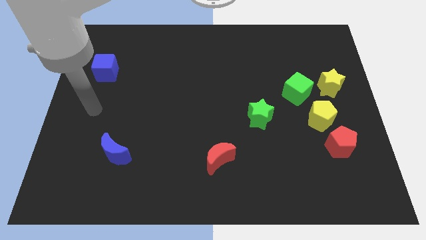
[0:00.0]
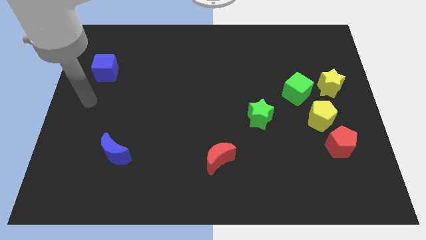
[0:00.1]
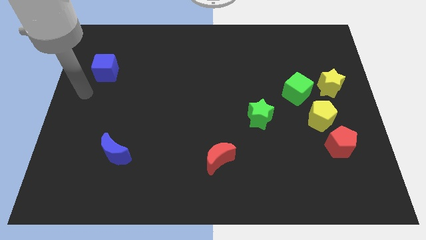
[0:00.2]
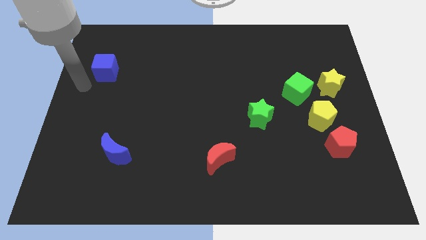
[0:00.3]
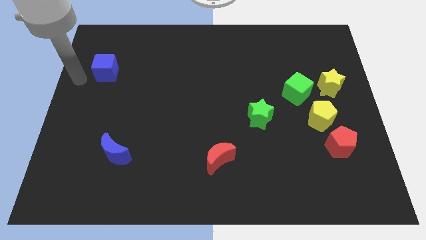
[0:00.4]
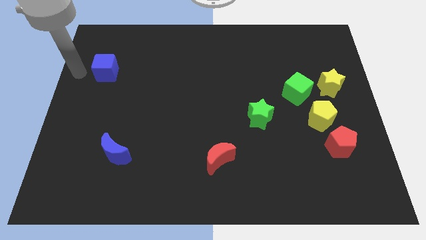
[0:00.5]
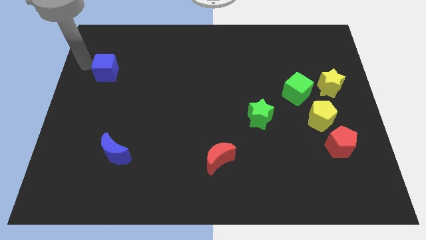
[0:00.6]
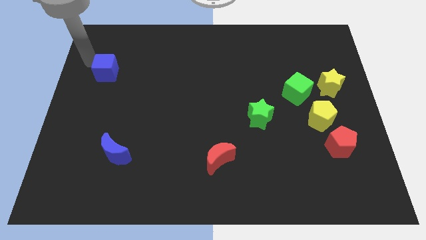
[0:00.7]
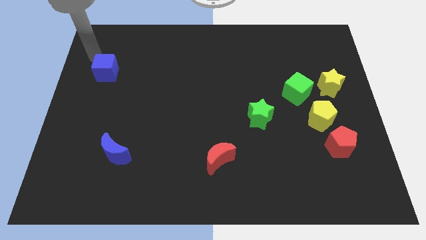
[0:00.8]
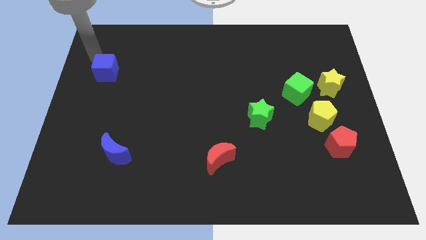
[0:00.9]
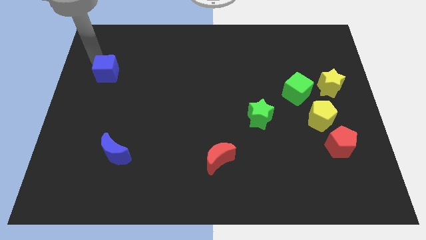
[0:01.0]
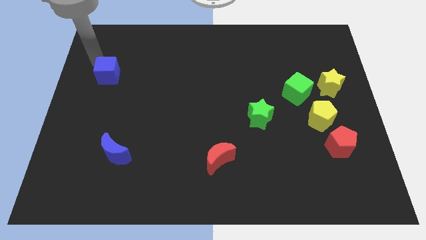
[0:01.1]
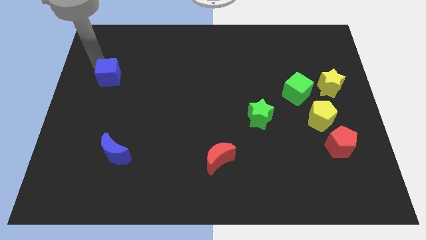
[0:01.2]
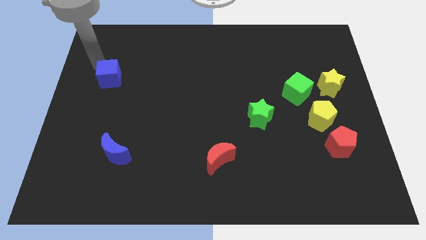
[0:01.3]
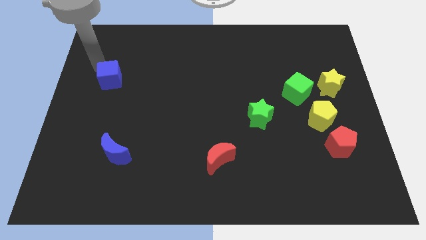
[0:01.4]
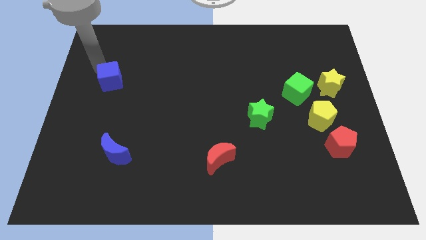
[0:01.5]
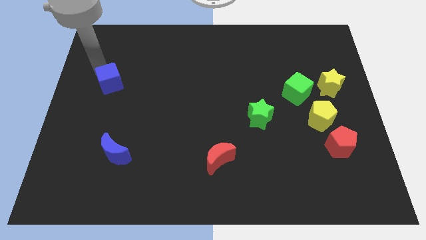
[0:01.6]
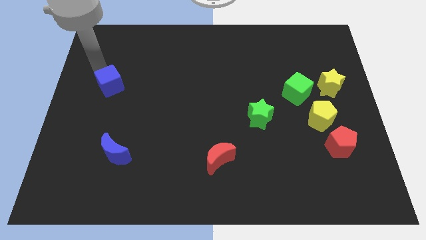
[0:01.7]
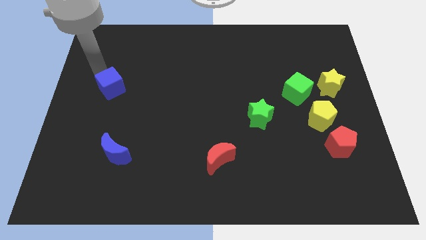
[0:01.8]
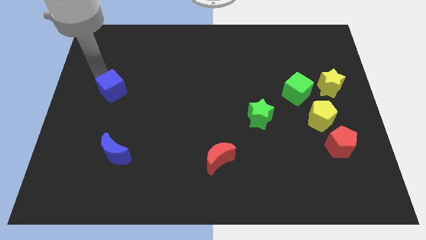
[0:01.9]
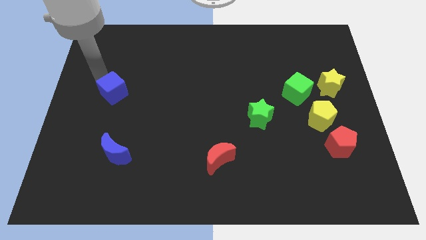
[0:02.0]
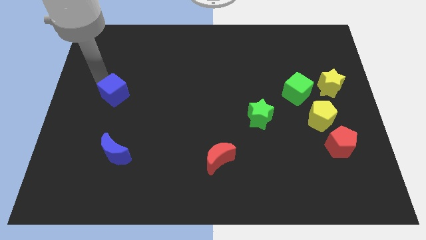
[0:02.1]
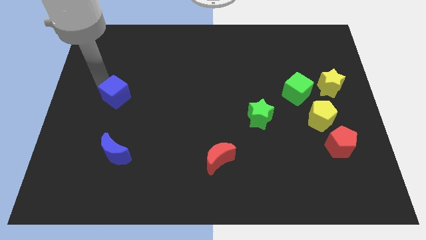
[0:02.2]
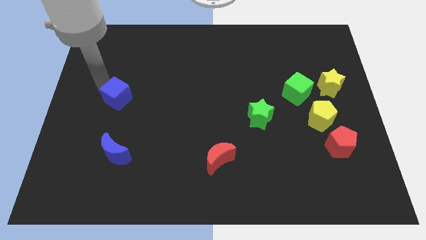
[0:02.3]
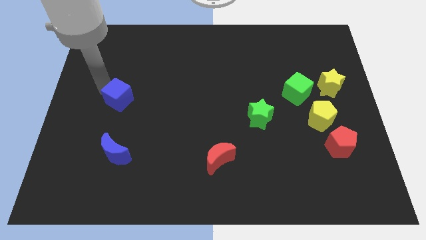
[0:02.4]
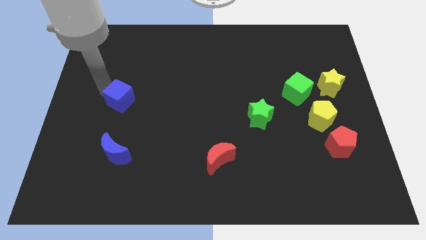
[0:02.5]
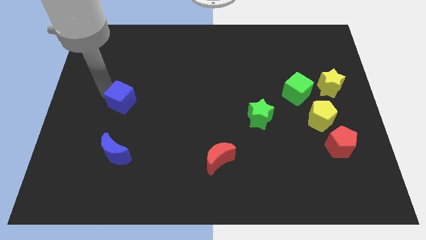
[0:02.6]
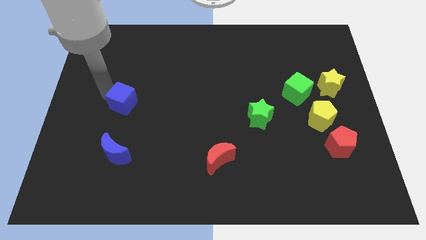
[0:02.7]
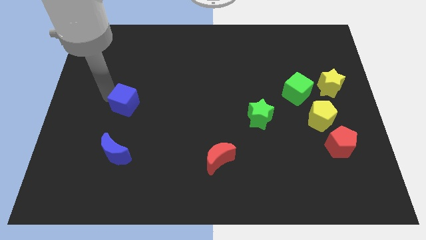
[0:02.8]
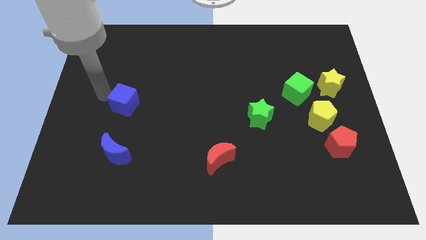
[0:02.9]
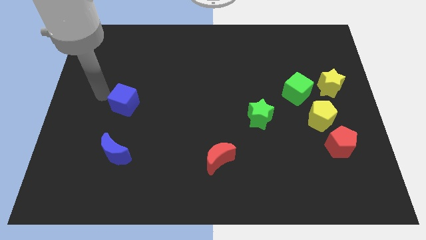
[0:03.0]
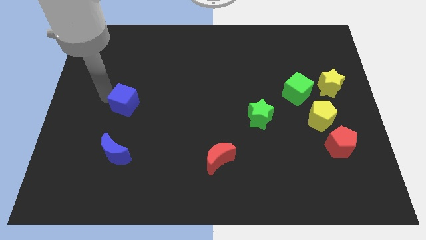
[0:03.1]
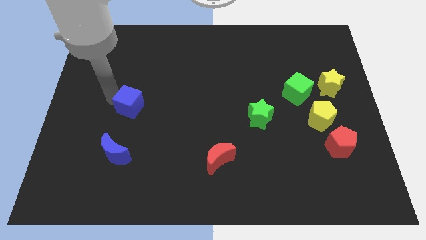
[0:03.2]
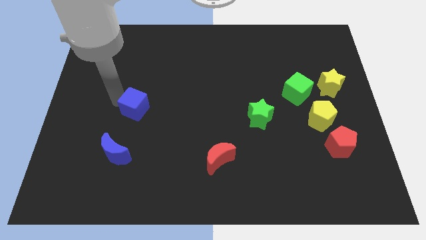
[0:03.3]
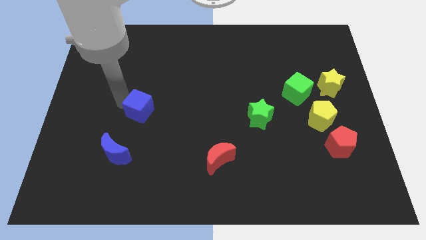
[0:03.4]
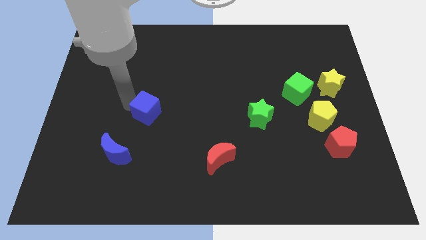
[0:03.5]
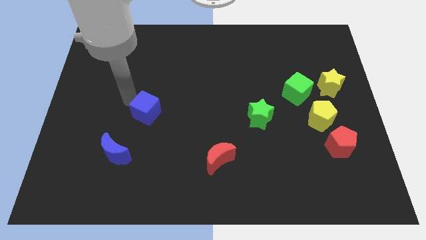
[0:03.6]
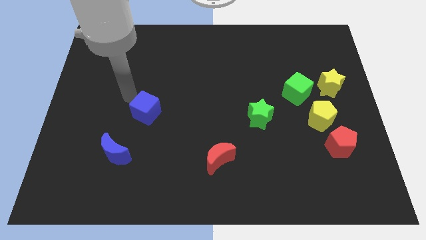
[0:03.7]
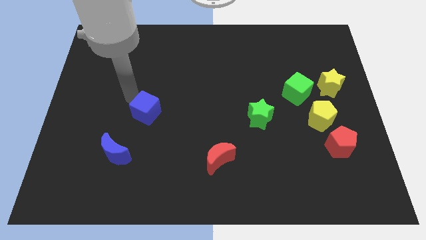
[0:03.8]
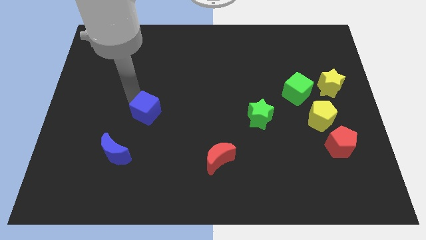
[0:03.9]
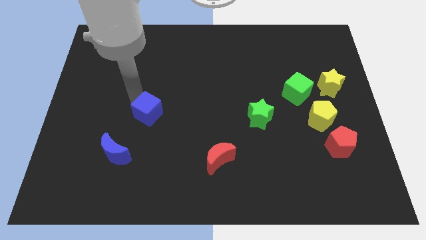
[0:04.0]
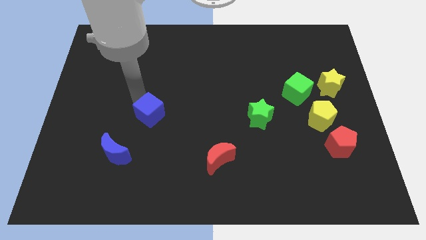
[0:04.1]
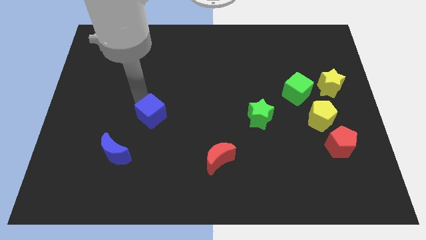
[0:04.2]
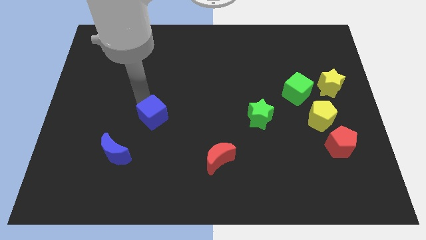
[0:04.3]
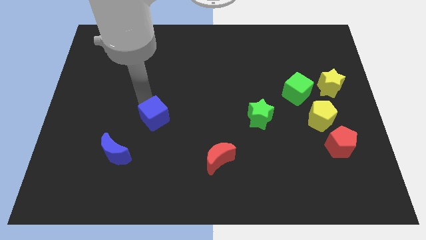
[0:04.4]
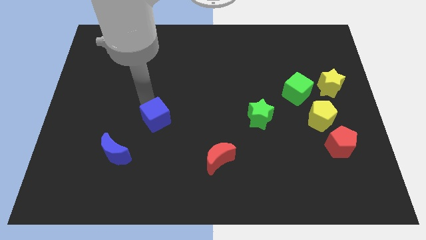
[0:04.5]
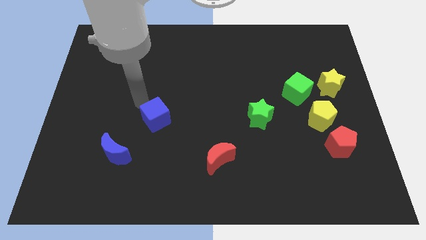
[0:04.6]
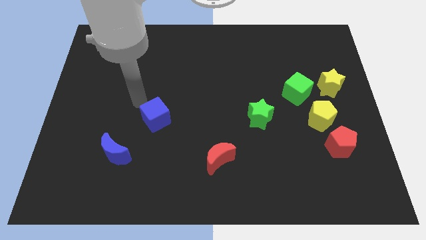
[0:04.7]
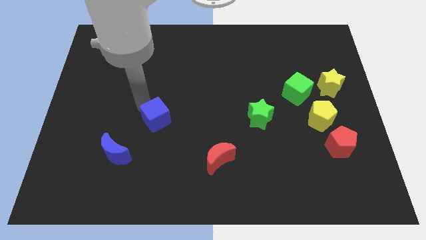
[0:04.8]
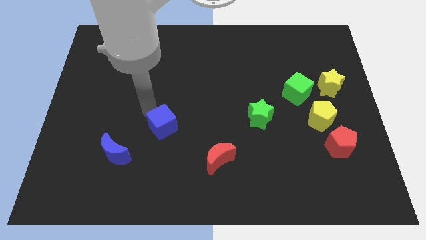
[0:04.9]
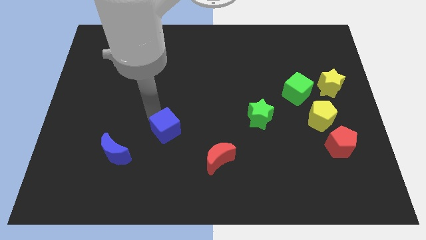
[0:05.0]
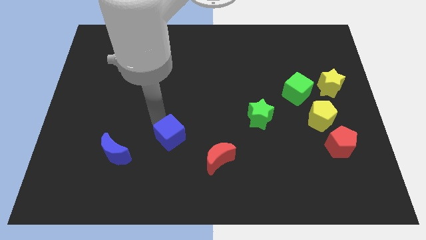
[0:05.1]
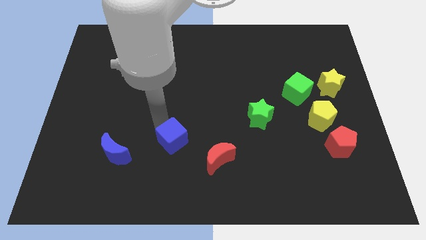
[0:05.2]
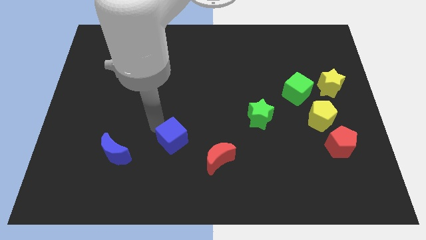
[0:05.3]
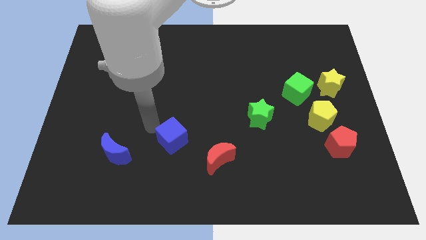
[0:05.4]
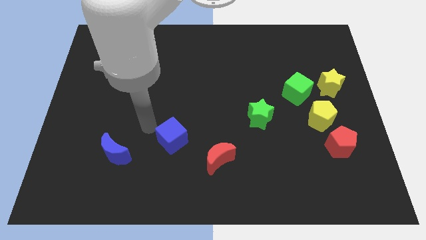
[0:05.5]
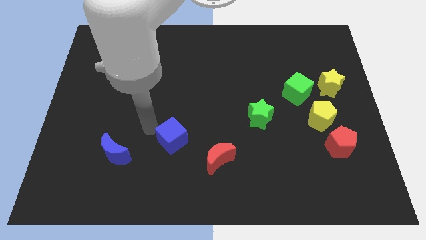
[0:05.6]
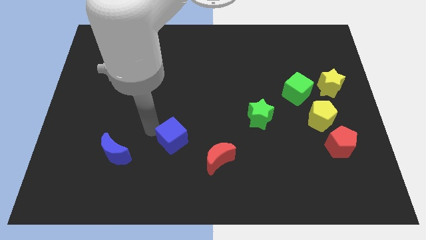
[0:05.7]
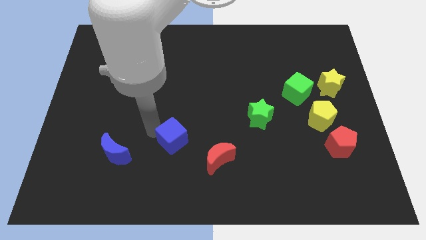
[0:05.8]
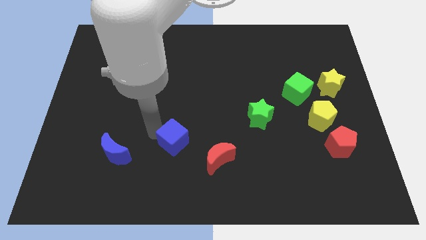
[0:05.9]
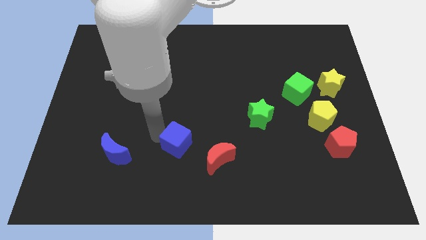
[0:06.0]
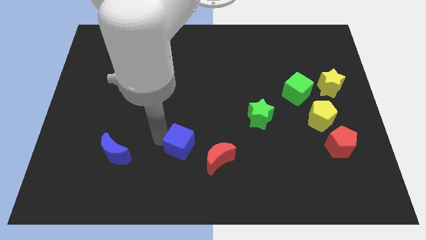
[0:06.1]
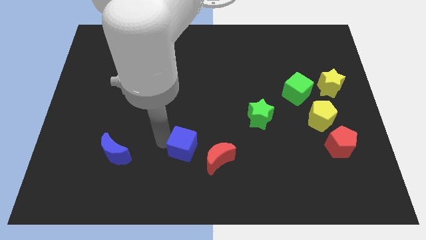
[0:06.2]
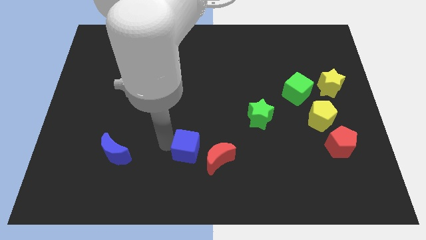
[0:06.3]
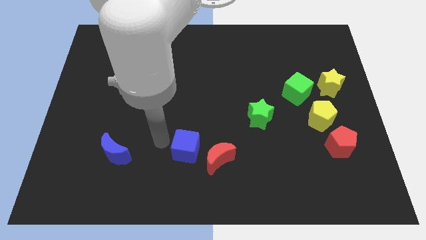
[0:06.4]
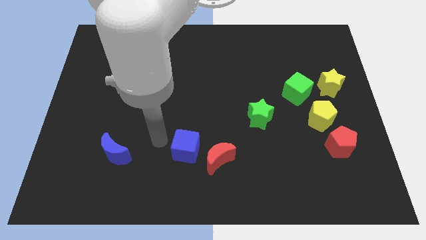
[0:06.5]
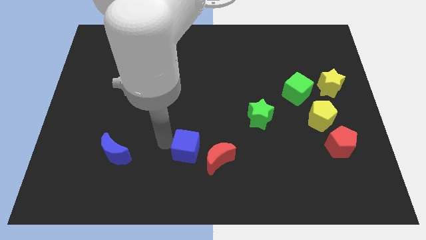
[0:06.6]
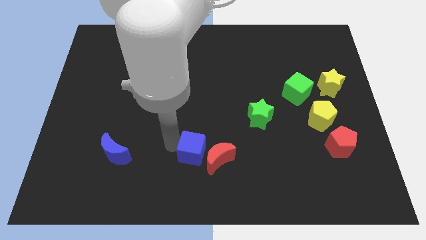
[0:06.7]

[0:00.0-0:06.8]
put the blue cube towards the red moon
